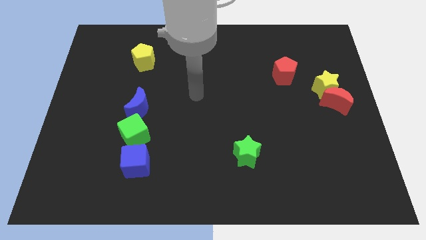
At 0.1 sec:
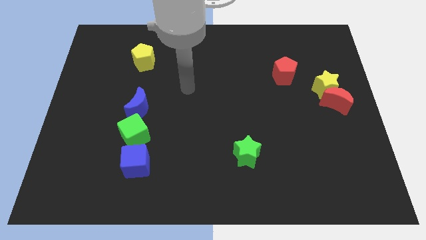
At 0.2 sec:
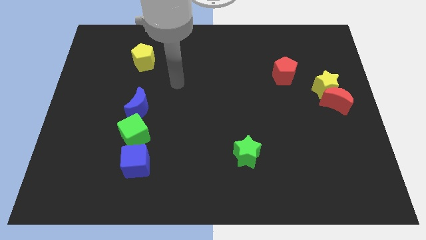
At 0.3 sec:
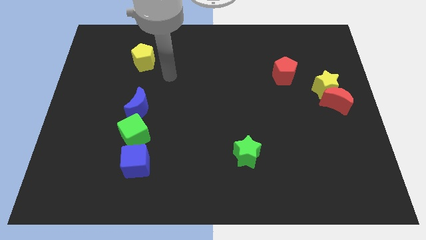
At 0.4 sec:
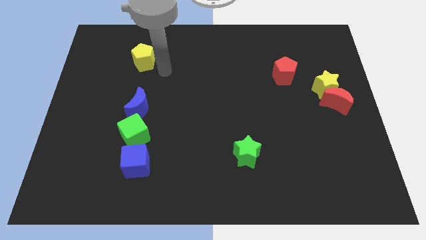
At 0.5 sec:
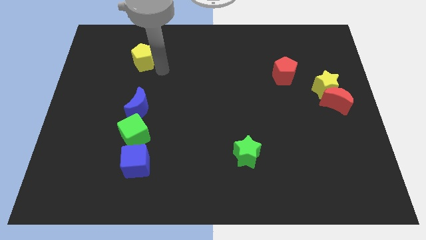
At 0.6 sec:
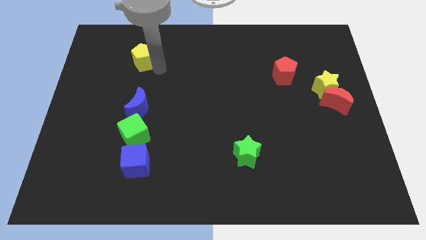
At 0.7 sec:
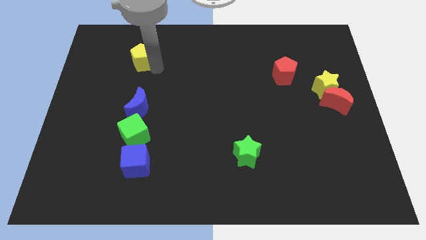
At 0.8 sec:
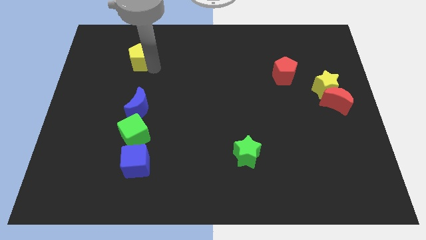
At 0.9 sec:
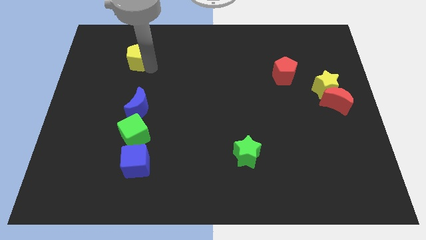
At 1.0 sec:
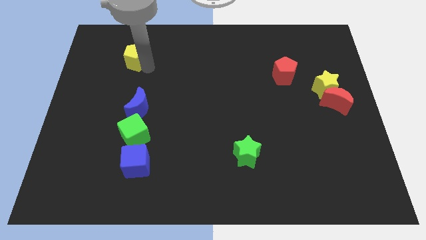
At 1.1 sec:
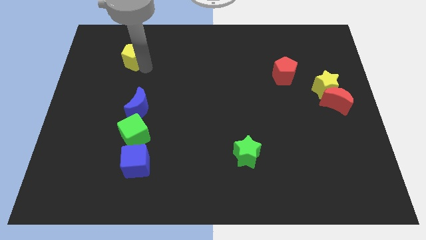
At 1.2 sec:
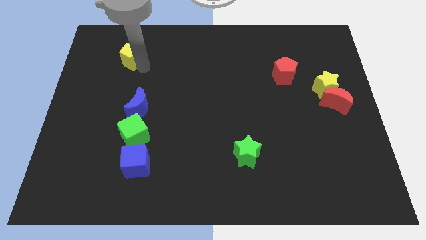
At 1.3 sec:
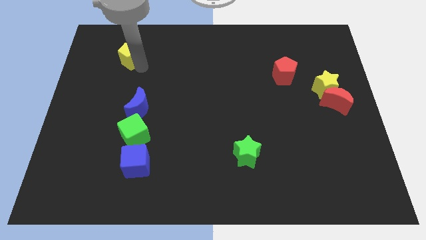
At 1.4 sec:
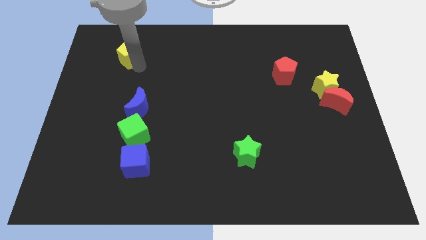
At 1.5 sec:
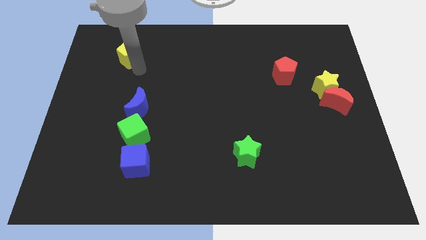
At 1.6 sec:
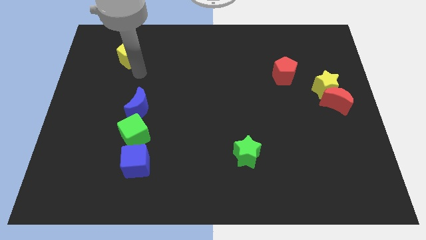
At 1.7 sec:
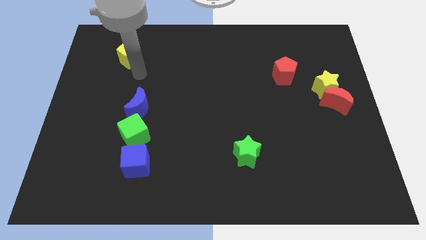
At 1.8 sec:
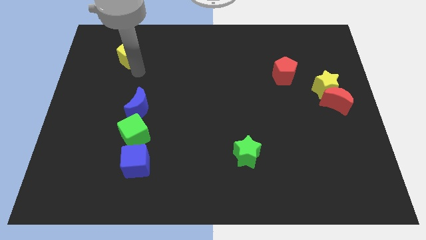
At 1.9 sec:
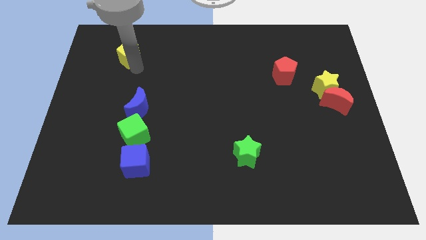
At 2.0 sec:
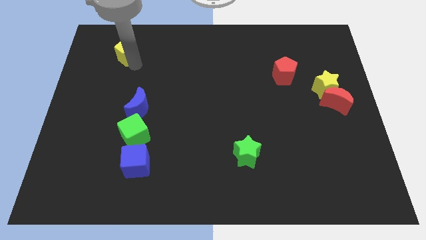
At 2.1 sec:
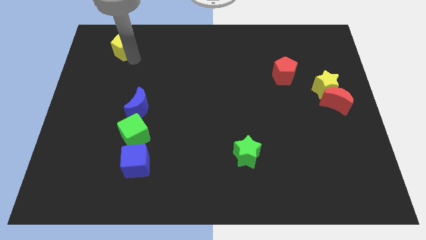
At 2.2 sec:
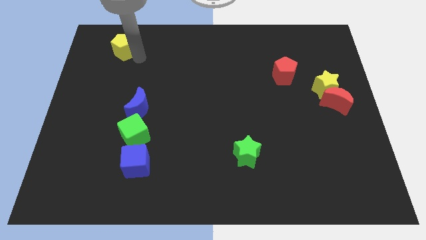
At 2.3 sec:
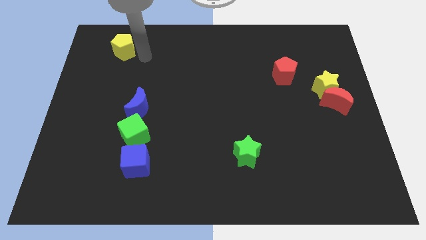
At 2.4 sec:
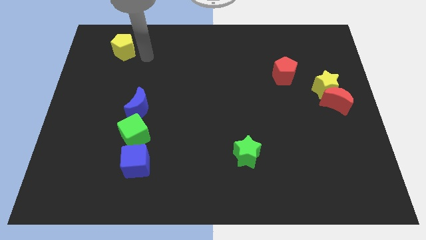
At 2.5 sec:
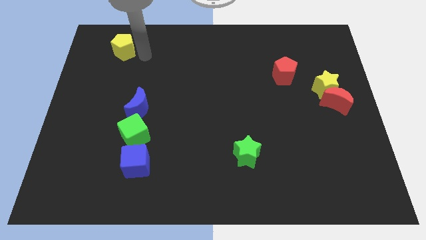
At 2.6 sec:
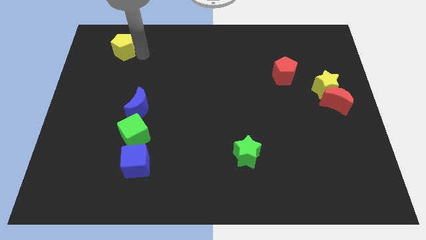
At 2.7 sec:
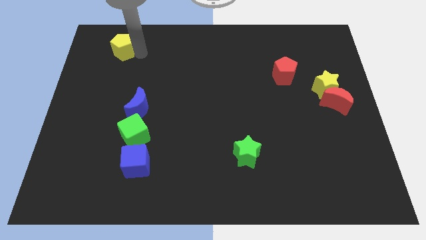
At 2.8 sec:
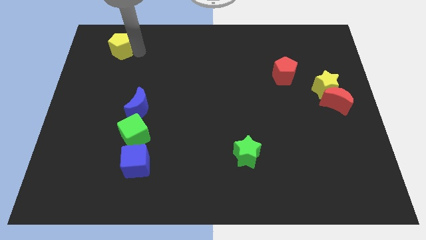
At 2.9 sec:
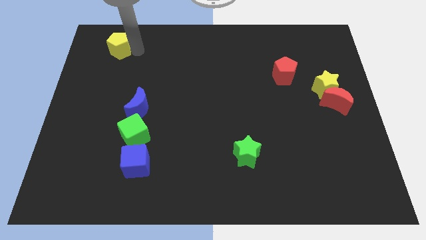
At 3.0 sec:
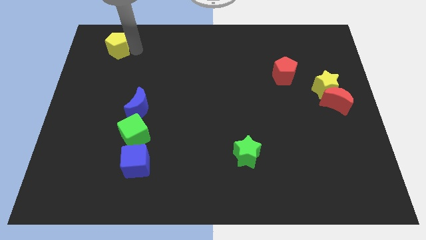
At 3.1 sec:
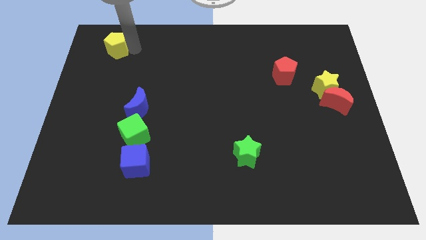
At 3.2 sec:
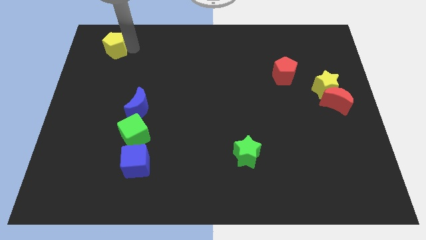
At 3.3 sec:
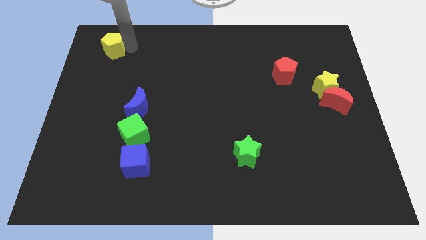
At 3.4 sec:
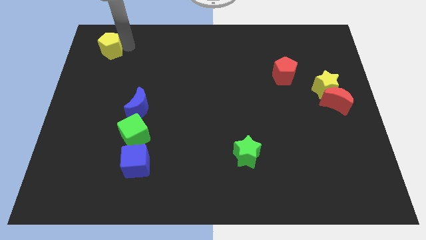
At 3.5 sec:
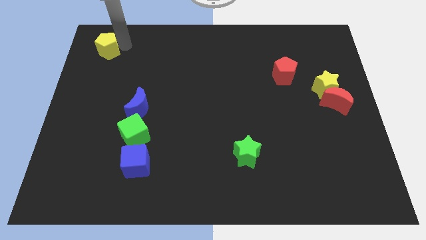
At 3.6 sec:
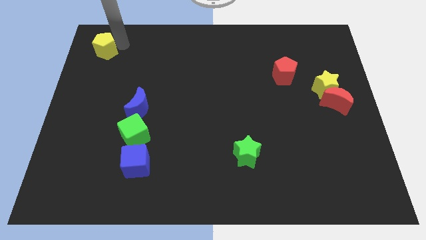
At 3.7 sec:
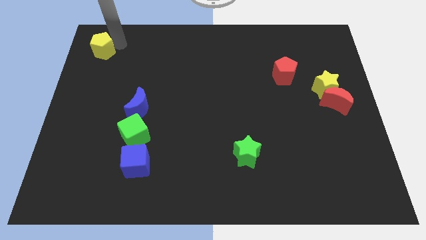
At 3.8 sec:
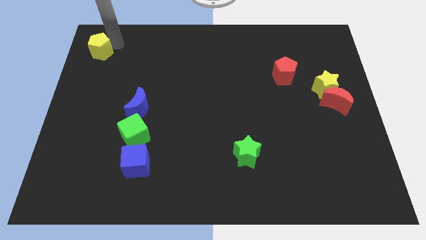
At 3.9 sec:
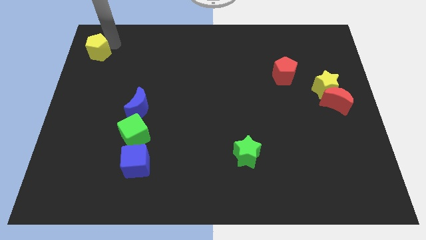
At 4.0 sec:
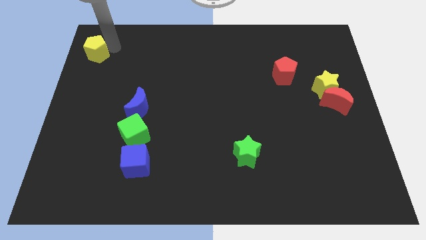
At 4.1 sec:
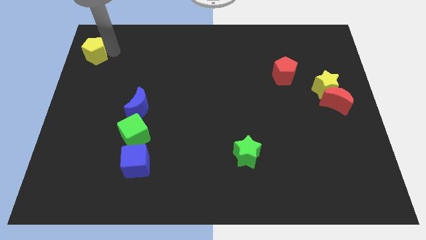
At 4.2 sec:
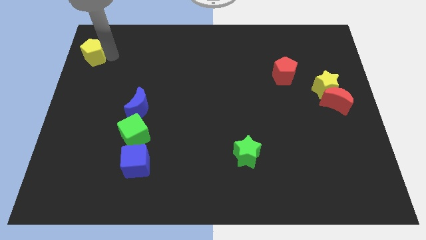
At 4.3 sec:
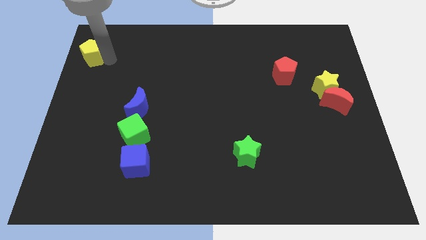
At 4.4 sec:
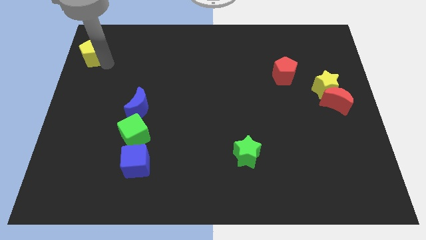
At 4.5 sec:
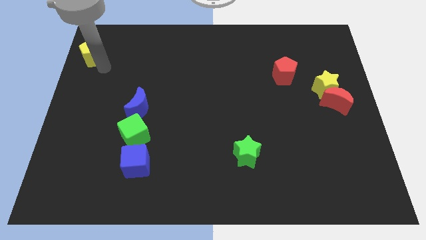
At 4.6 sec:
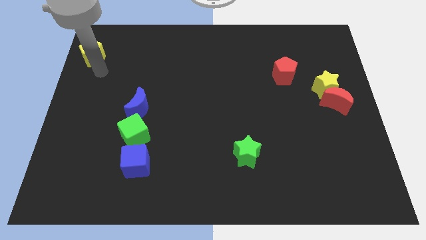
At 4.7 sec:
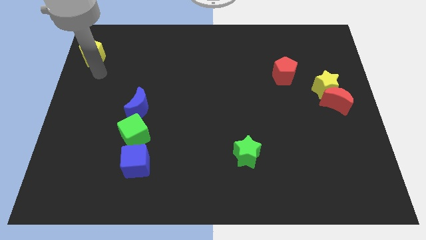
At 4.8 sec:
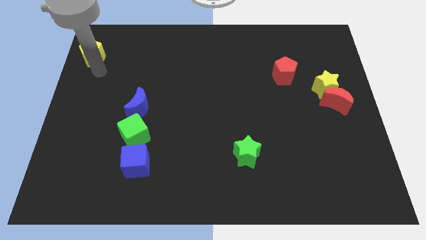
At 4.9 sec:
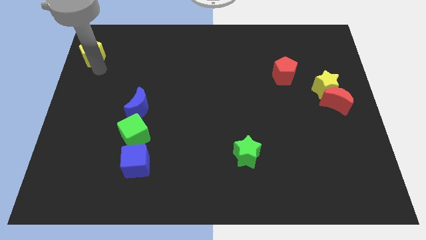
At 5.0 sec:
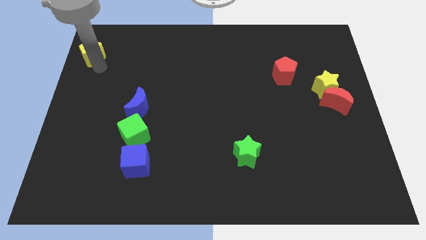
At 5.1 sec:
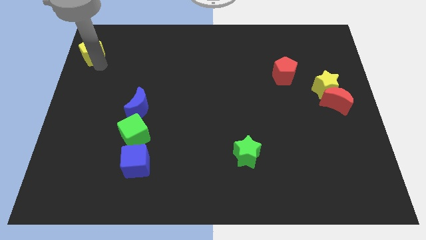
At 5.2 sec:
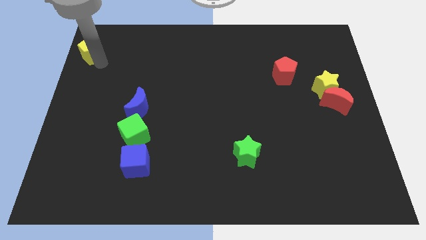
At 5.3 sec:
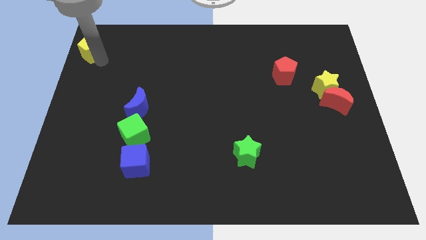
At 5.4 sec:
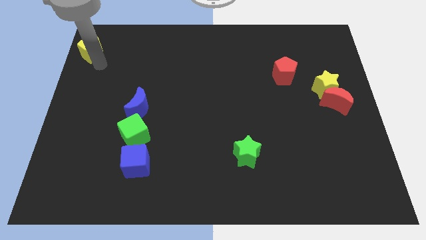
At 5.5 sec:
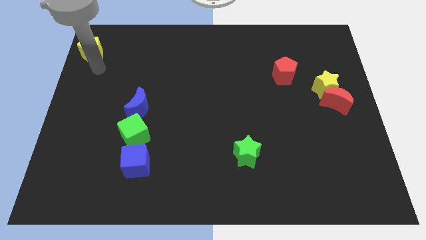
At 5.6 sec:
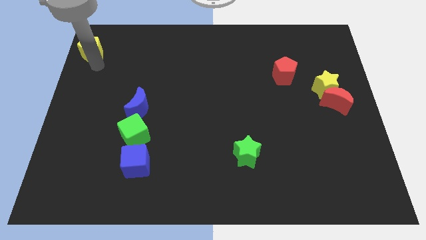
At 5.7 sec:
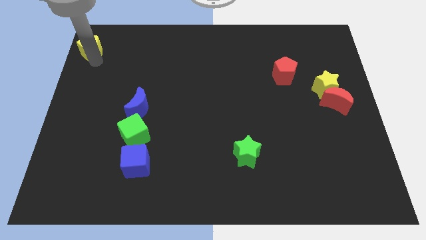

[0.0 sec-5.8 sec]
push the yellow pentagon to the top left corner
